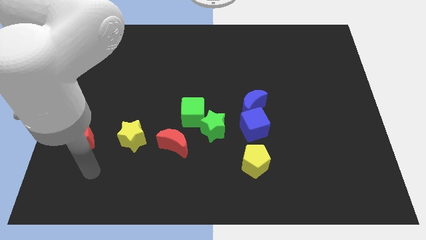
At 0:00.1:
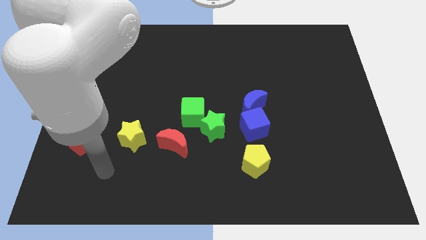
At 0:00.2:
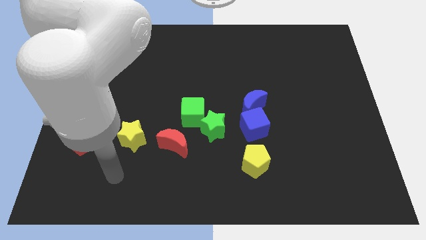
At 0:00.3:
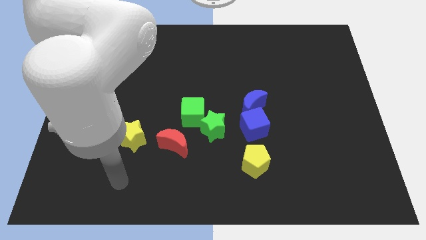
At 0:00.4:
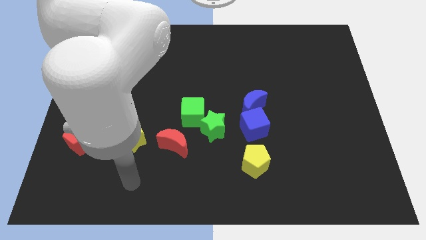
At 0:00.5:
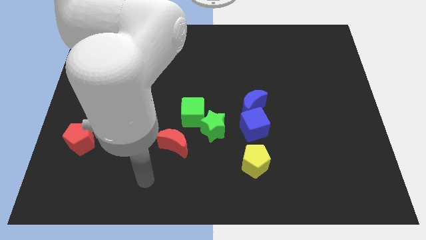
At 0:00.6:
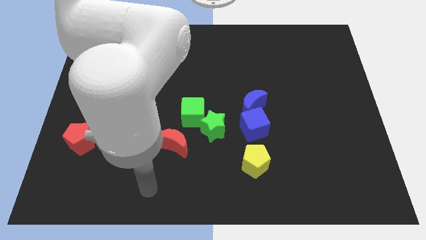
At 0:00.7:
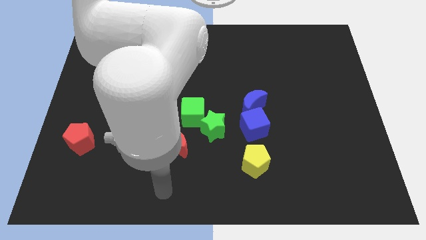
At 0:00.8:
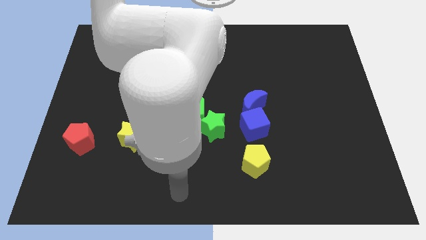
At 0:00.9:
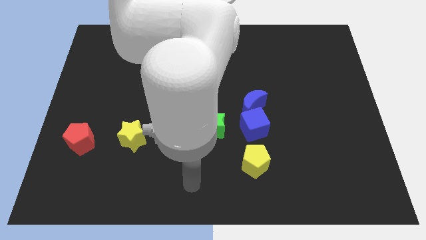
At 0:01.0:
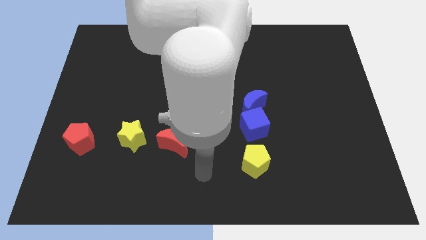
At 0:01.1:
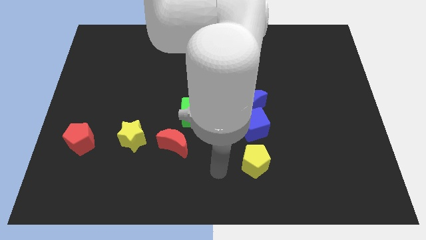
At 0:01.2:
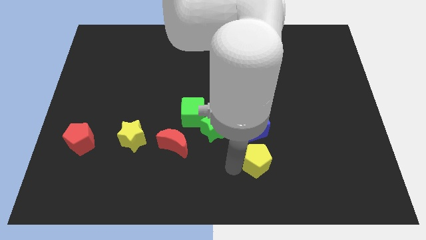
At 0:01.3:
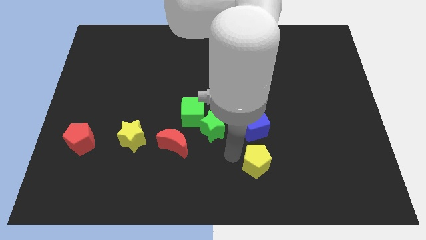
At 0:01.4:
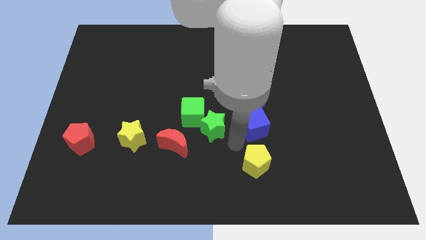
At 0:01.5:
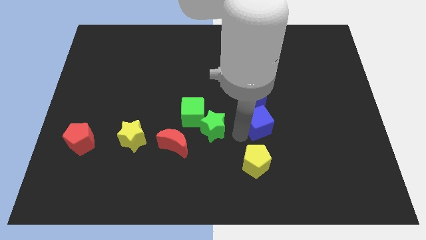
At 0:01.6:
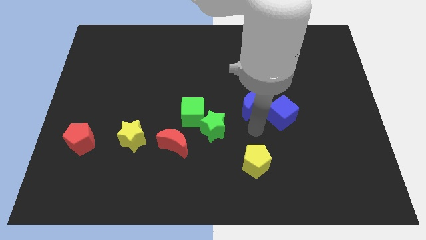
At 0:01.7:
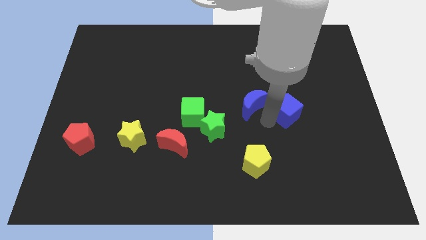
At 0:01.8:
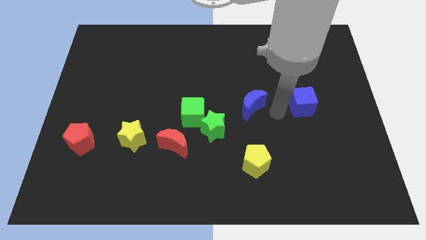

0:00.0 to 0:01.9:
separate the blue moon from the blue cube

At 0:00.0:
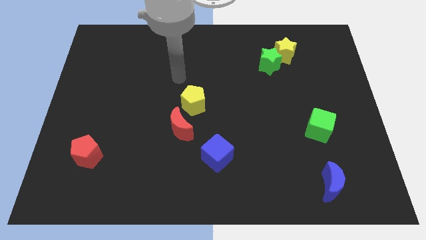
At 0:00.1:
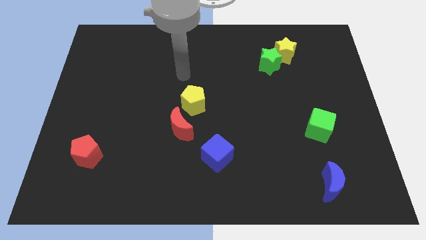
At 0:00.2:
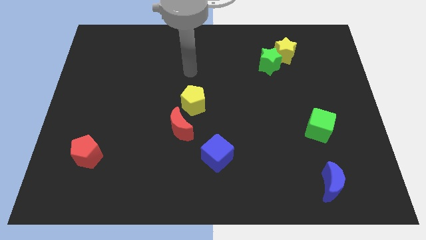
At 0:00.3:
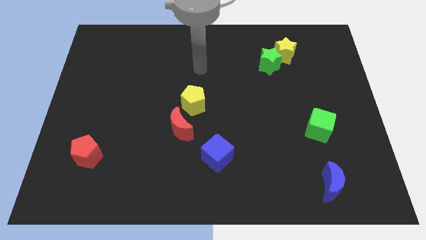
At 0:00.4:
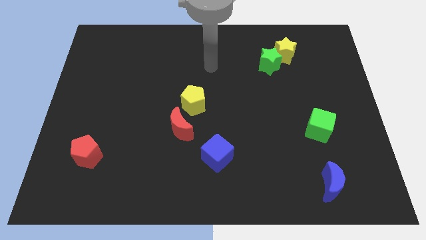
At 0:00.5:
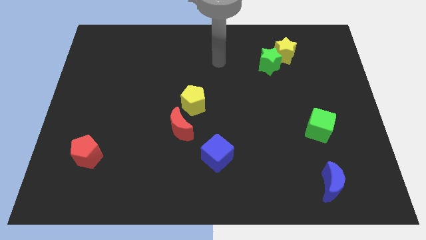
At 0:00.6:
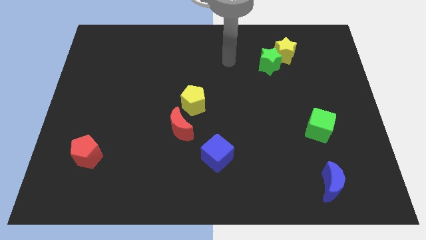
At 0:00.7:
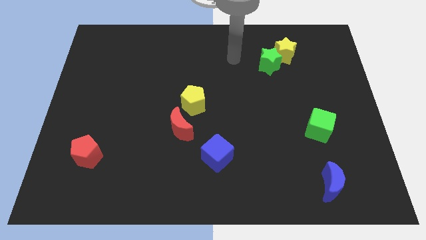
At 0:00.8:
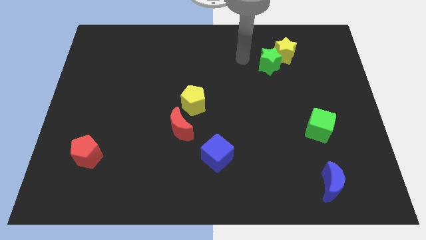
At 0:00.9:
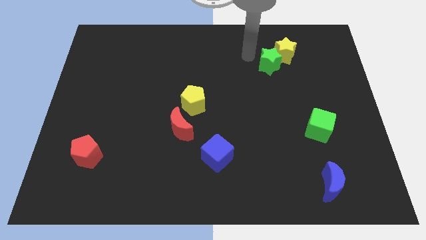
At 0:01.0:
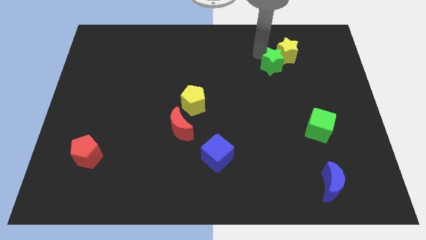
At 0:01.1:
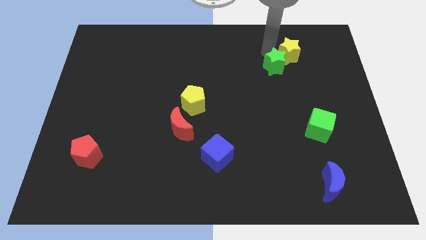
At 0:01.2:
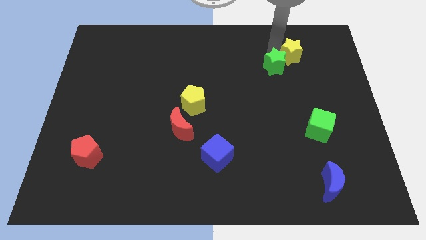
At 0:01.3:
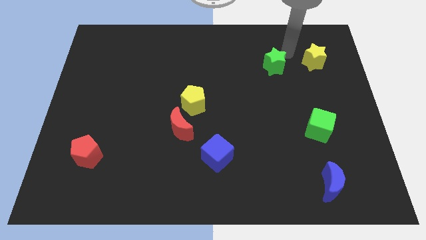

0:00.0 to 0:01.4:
separate the green star from the yellow star

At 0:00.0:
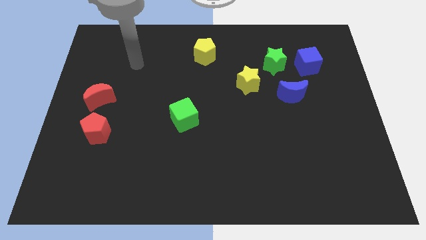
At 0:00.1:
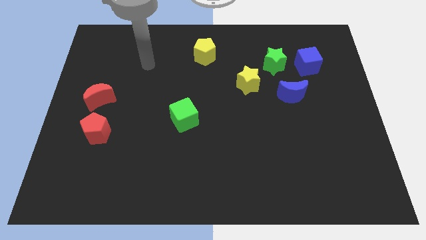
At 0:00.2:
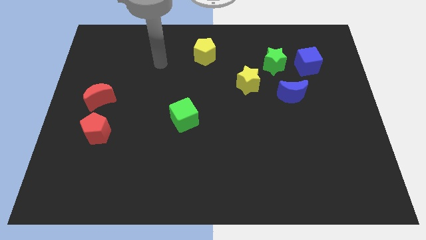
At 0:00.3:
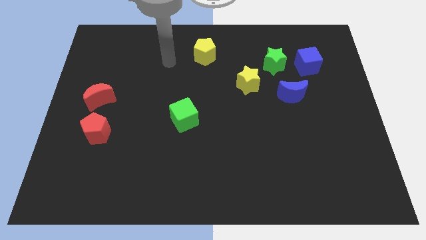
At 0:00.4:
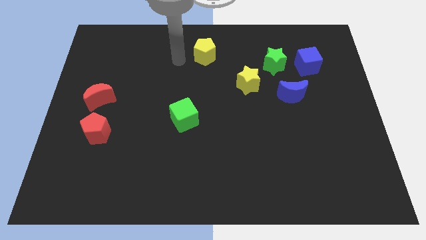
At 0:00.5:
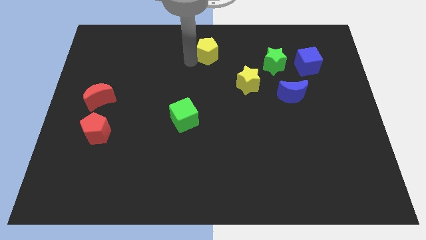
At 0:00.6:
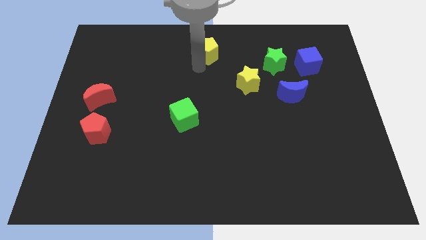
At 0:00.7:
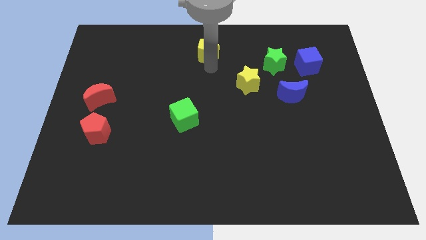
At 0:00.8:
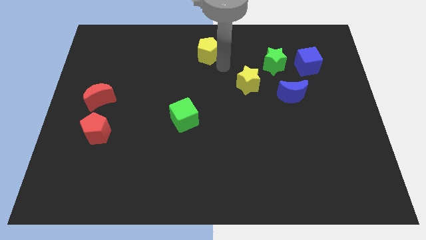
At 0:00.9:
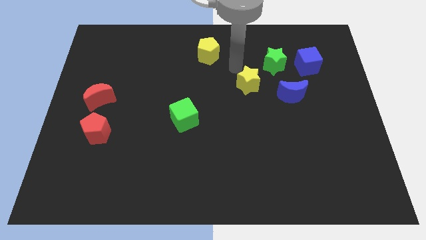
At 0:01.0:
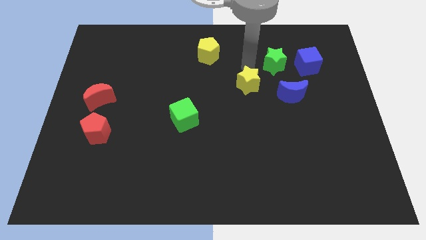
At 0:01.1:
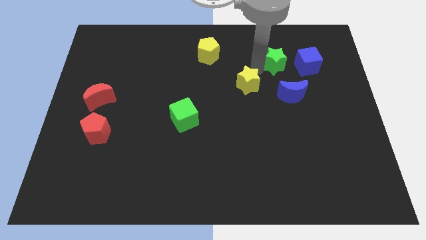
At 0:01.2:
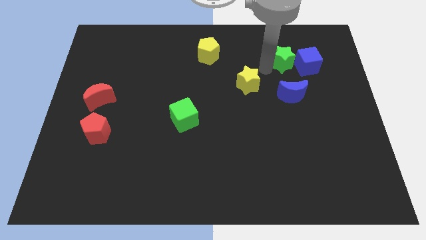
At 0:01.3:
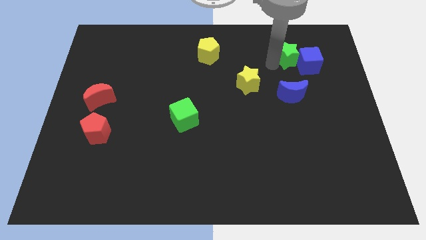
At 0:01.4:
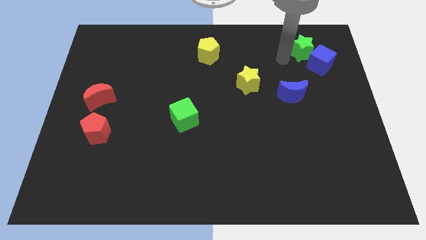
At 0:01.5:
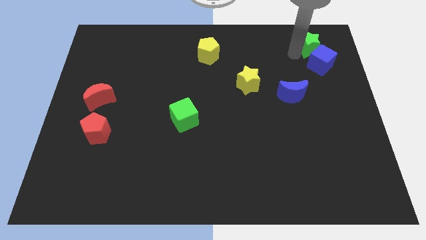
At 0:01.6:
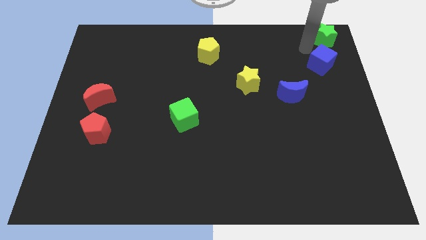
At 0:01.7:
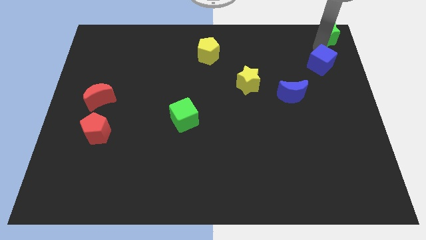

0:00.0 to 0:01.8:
move the blue cube away from the green star

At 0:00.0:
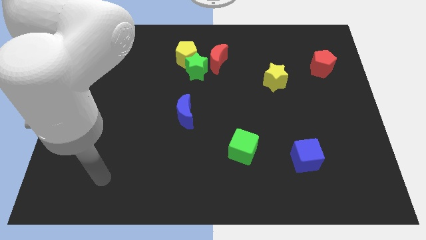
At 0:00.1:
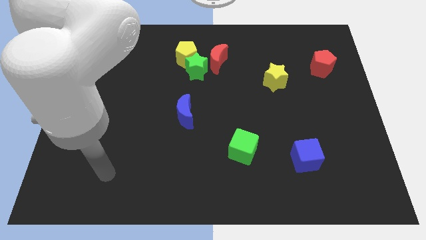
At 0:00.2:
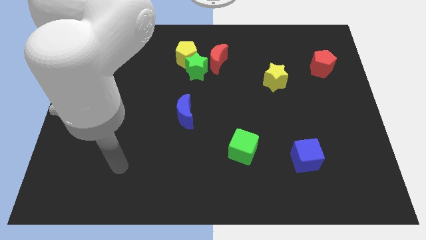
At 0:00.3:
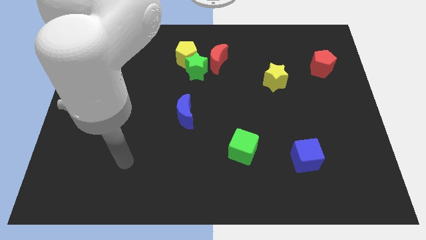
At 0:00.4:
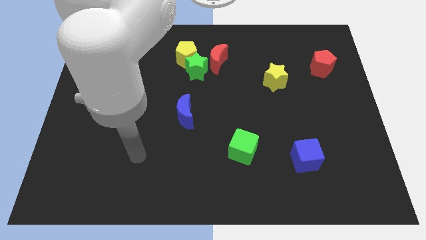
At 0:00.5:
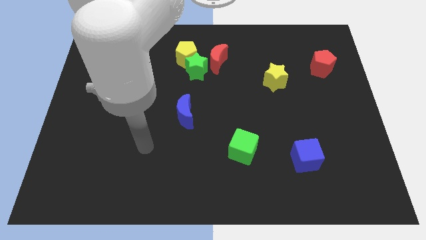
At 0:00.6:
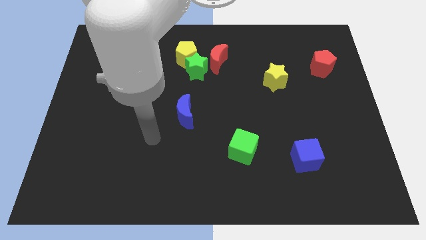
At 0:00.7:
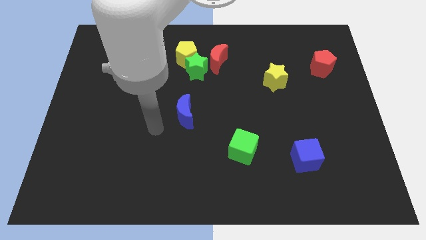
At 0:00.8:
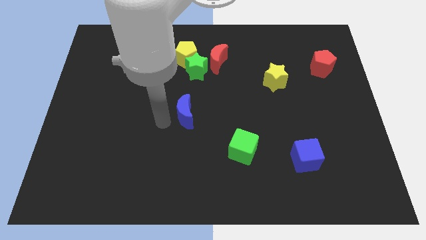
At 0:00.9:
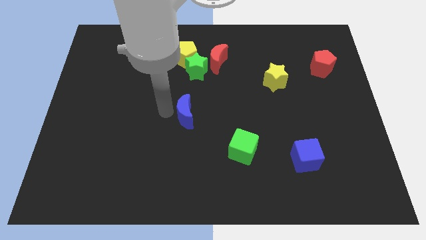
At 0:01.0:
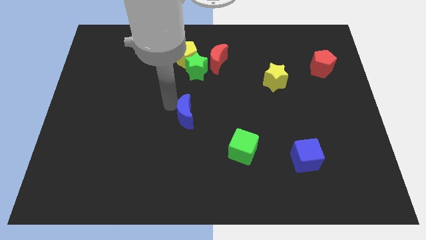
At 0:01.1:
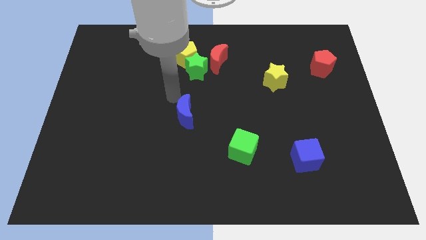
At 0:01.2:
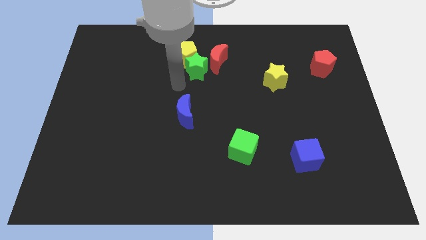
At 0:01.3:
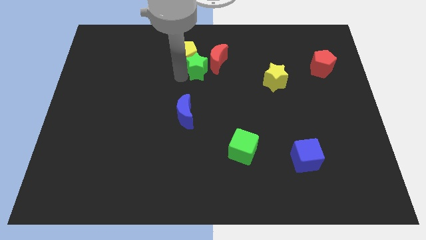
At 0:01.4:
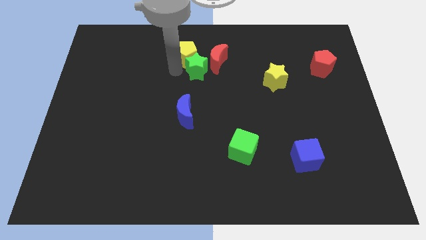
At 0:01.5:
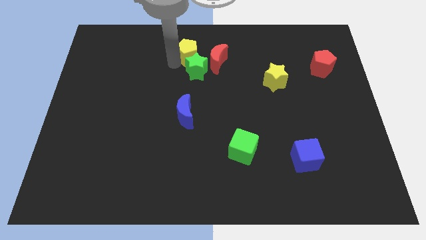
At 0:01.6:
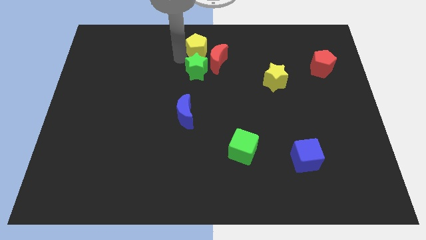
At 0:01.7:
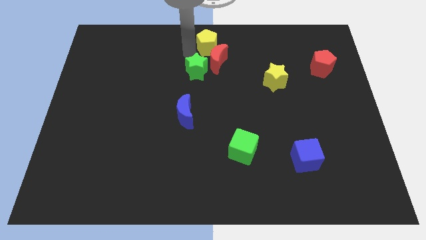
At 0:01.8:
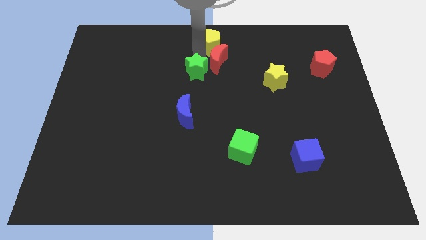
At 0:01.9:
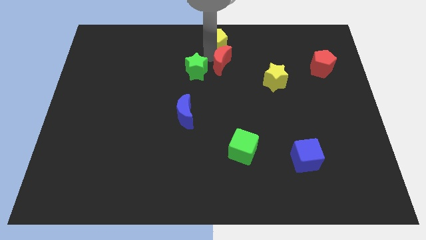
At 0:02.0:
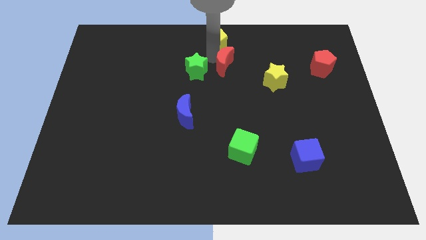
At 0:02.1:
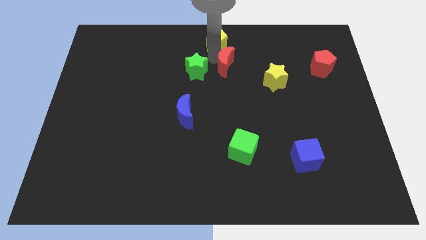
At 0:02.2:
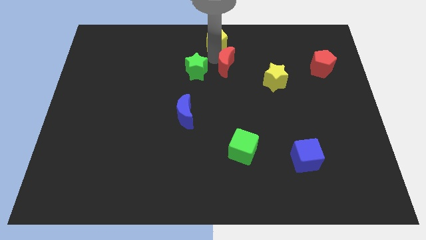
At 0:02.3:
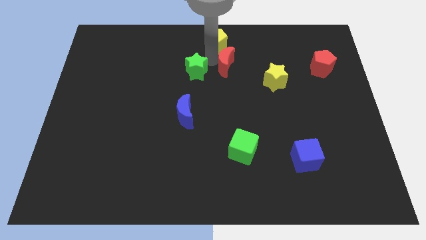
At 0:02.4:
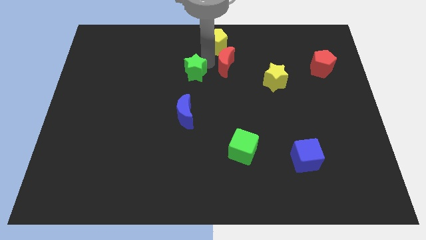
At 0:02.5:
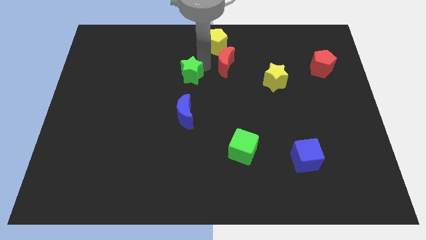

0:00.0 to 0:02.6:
pull the green star apart from the yellow pentagon and red moon

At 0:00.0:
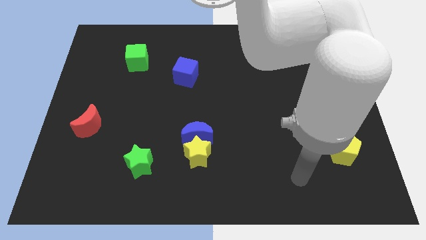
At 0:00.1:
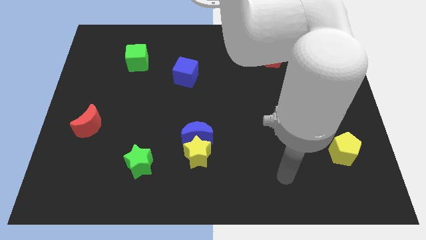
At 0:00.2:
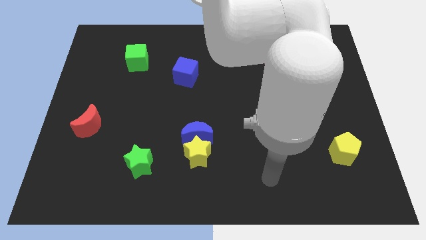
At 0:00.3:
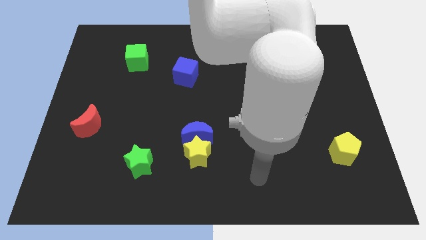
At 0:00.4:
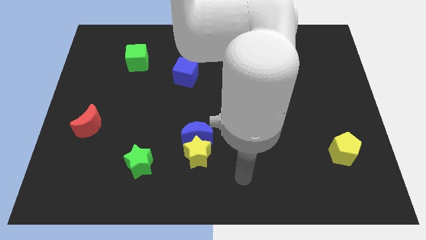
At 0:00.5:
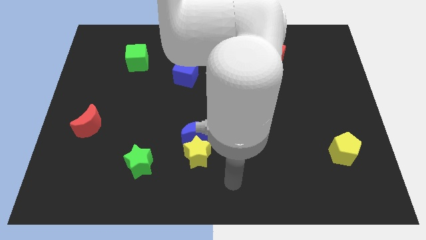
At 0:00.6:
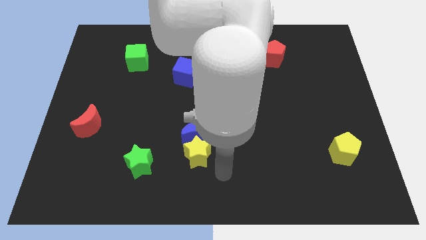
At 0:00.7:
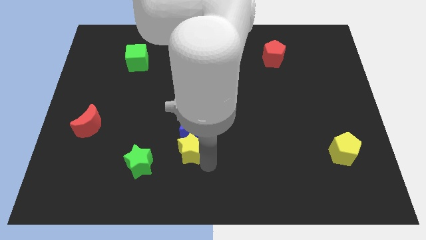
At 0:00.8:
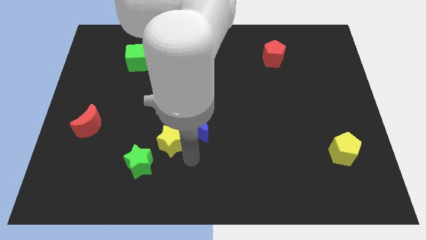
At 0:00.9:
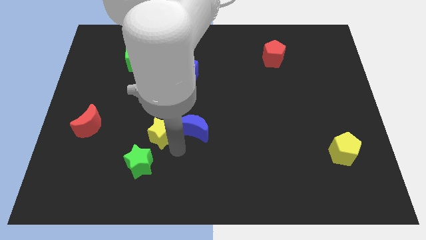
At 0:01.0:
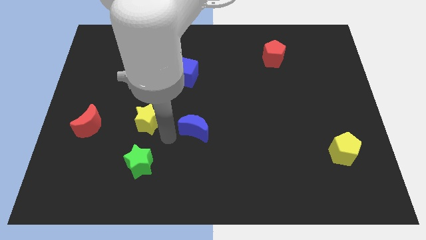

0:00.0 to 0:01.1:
pull the blue moon apart from the yellow star

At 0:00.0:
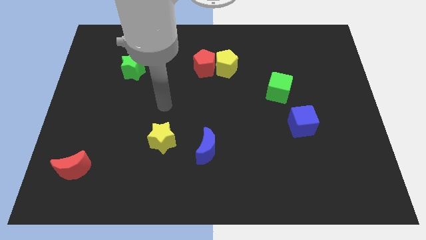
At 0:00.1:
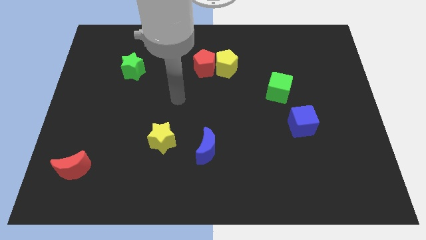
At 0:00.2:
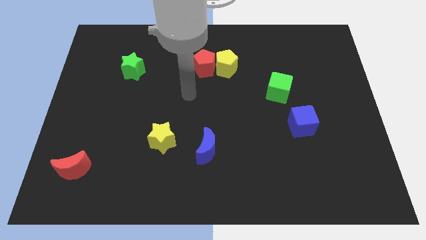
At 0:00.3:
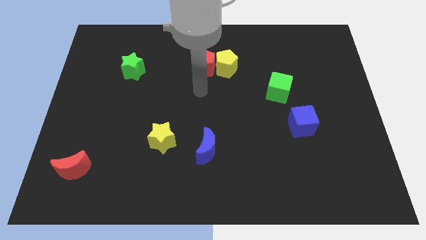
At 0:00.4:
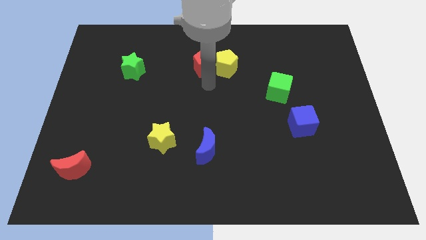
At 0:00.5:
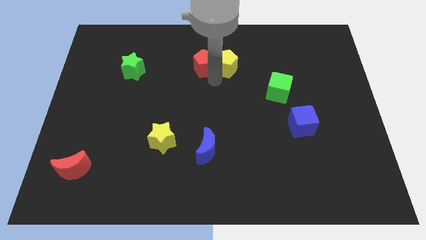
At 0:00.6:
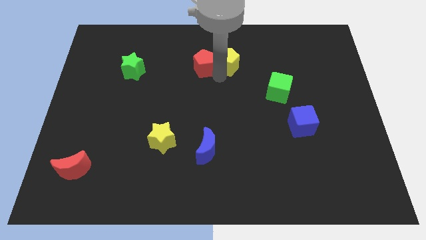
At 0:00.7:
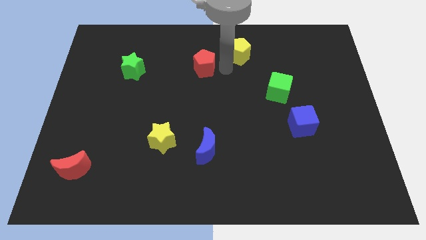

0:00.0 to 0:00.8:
pull the red pentagon apart from the yellow pentagon
